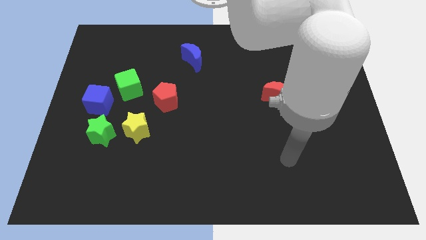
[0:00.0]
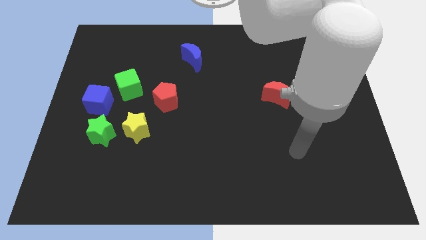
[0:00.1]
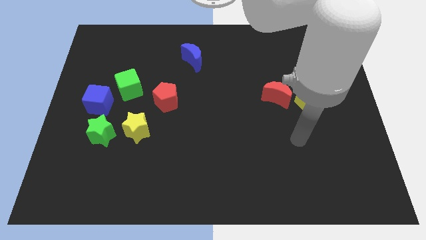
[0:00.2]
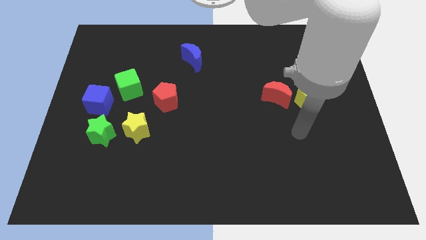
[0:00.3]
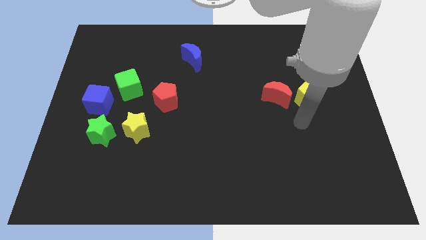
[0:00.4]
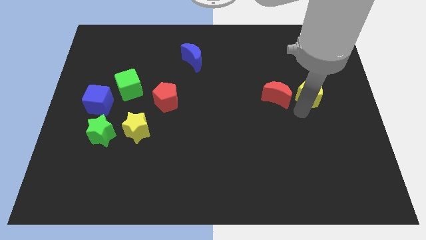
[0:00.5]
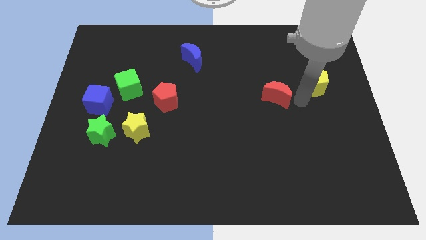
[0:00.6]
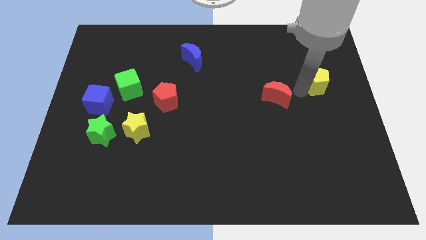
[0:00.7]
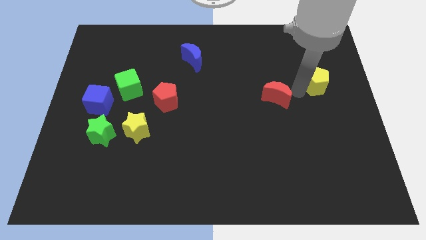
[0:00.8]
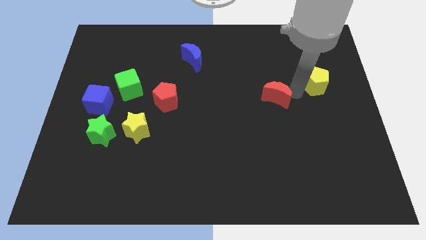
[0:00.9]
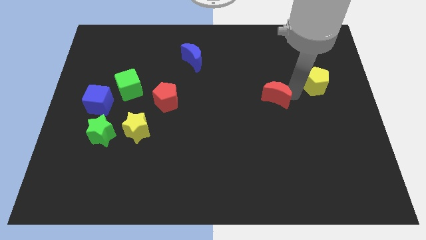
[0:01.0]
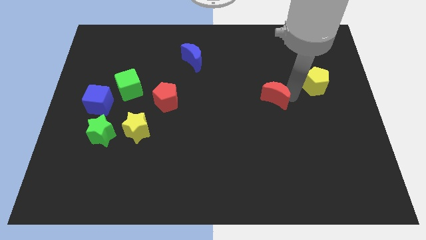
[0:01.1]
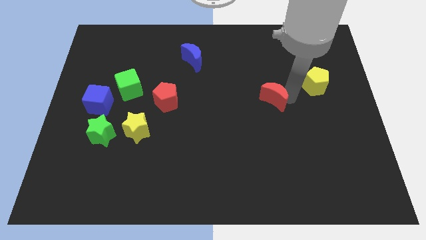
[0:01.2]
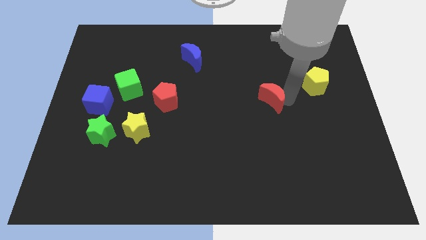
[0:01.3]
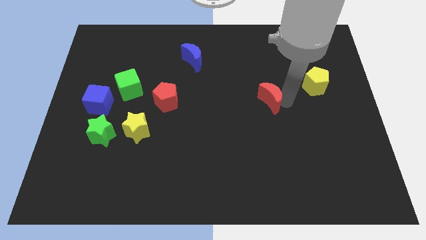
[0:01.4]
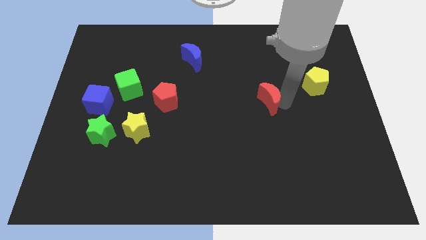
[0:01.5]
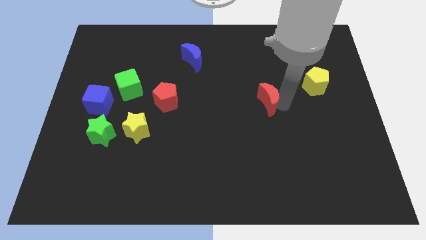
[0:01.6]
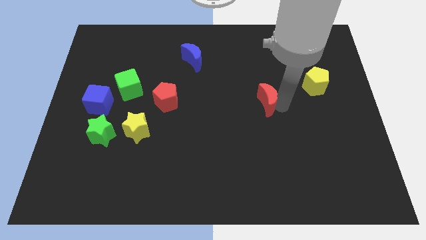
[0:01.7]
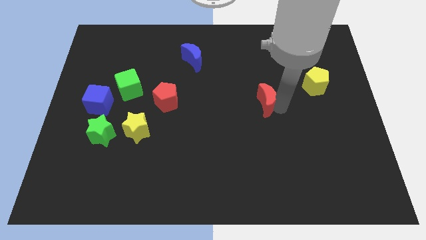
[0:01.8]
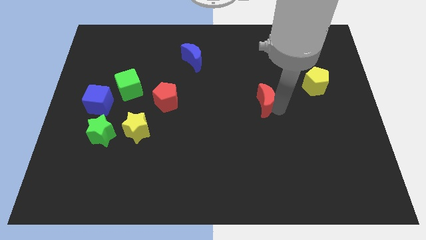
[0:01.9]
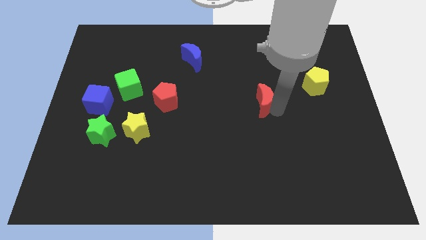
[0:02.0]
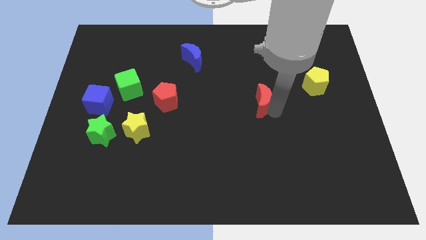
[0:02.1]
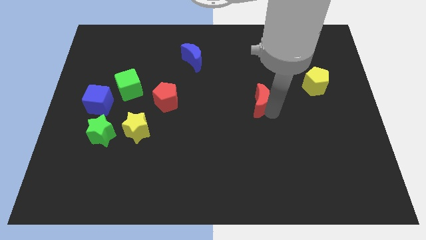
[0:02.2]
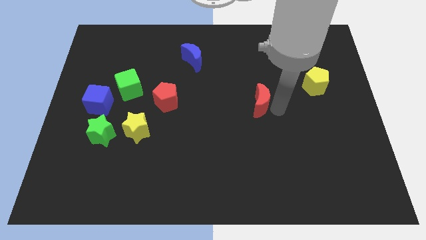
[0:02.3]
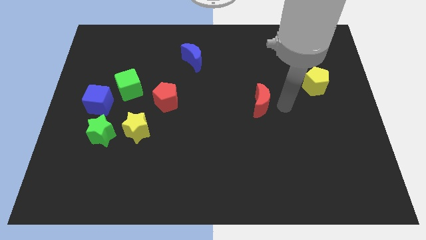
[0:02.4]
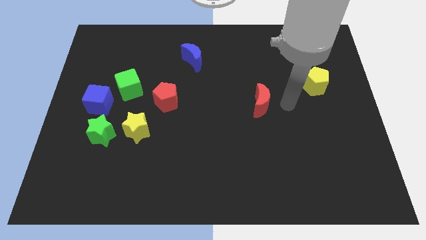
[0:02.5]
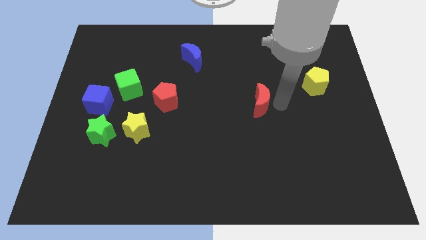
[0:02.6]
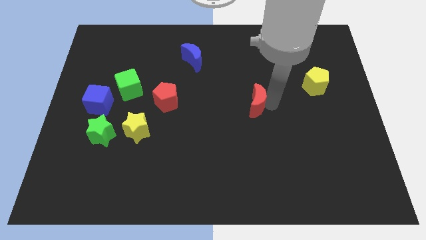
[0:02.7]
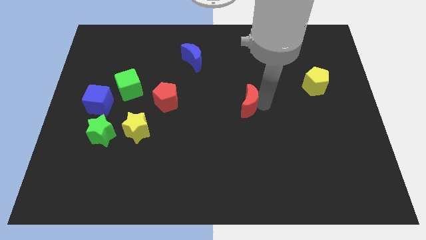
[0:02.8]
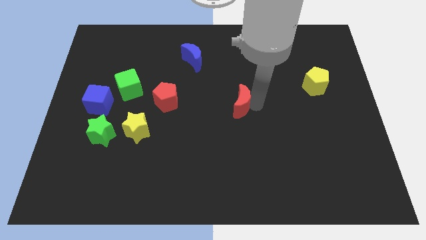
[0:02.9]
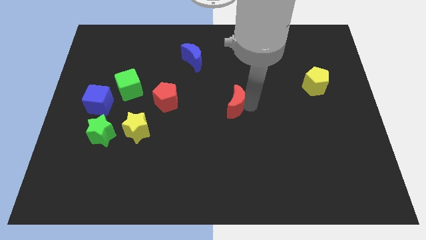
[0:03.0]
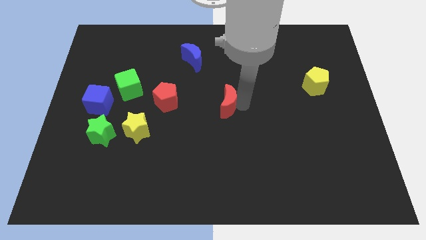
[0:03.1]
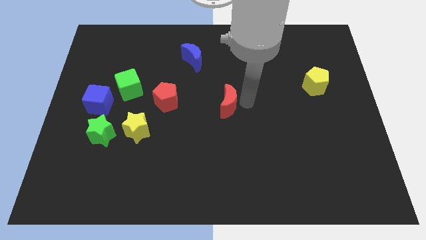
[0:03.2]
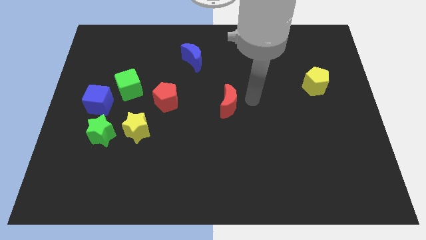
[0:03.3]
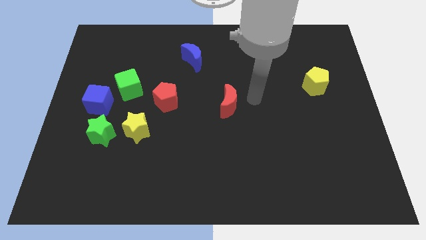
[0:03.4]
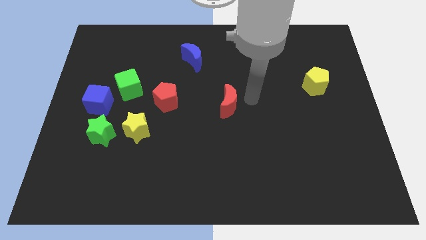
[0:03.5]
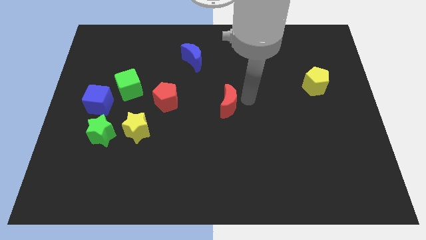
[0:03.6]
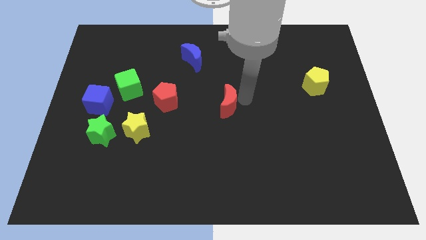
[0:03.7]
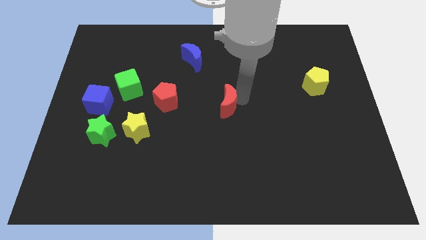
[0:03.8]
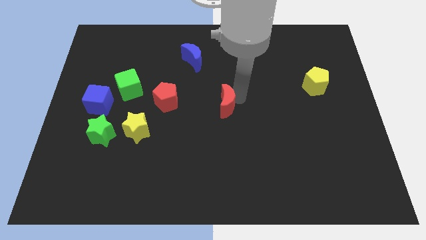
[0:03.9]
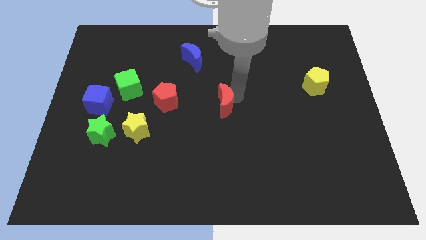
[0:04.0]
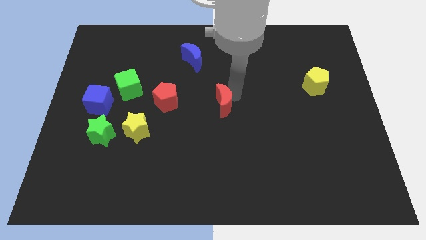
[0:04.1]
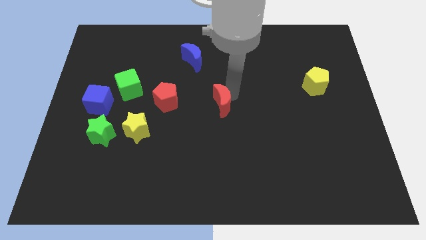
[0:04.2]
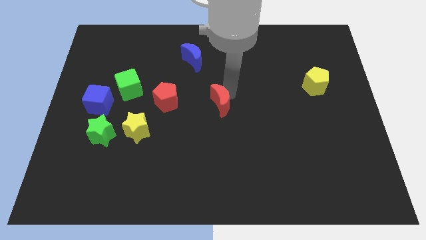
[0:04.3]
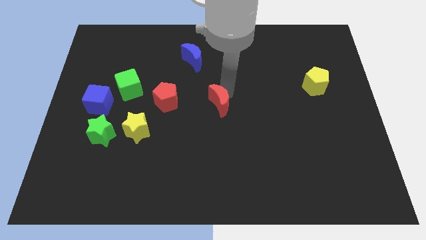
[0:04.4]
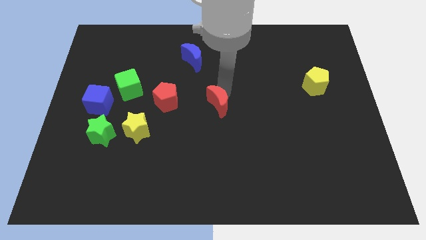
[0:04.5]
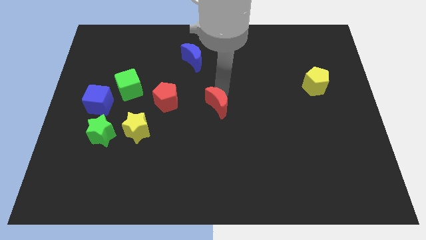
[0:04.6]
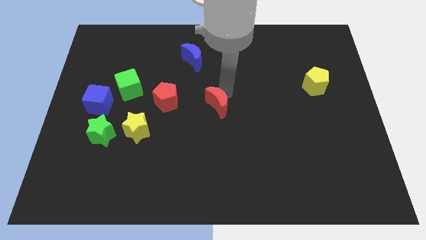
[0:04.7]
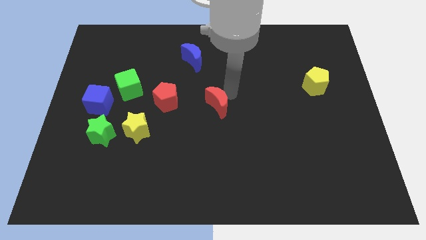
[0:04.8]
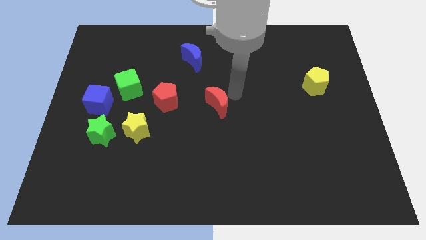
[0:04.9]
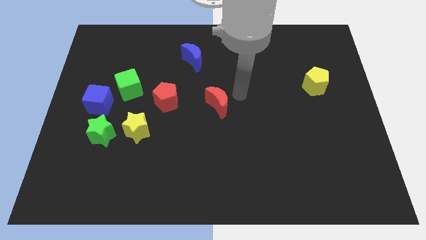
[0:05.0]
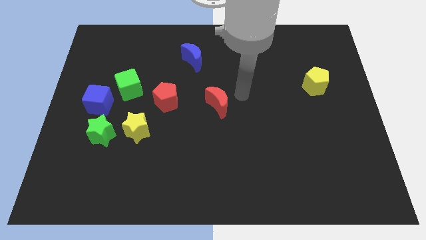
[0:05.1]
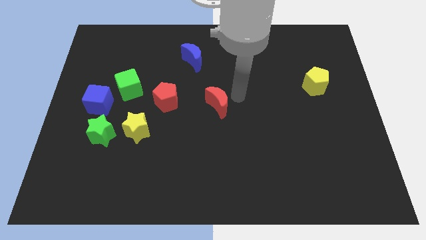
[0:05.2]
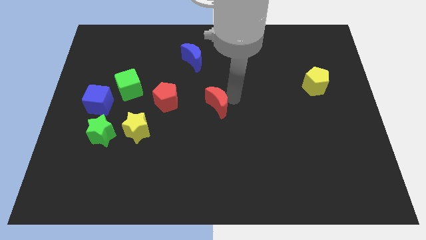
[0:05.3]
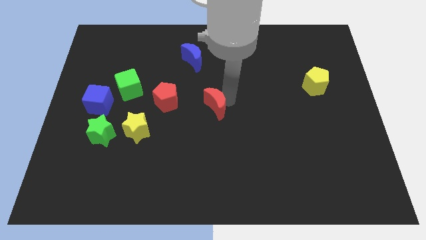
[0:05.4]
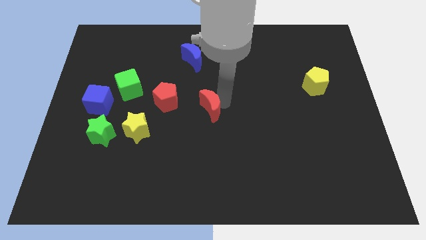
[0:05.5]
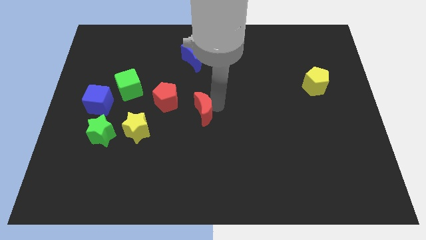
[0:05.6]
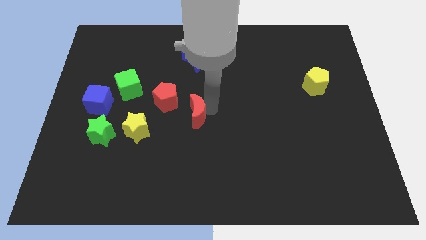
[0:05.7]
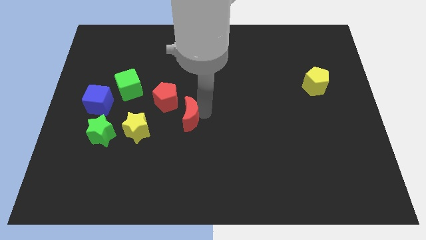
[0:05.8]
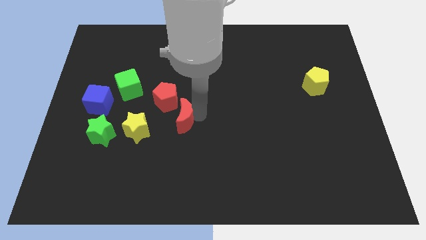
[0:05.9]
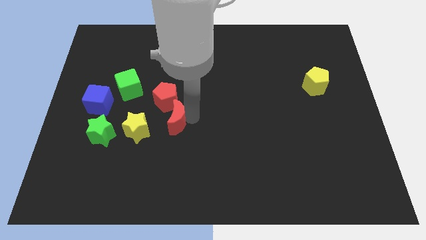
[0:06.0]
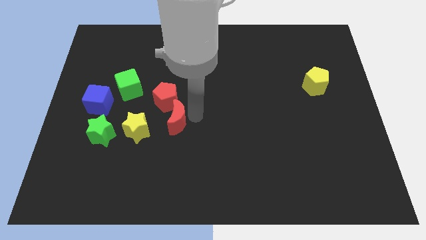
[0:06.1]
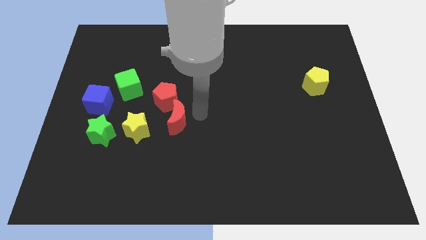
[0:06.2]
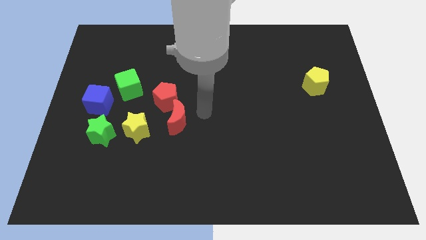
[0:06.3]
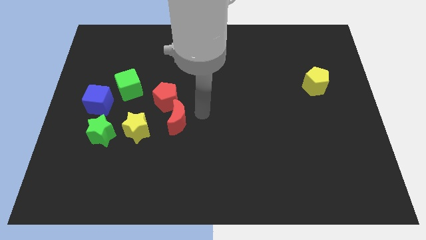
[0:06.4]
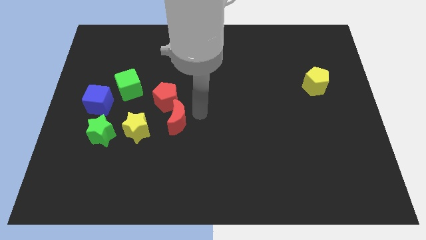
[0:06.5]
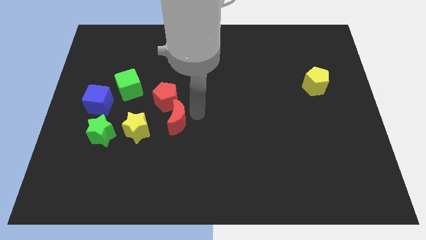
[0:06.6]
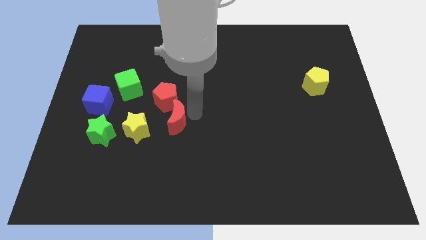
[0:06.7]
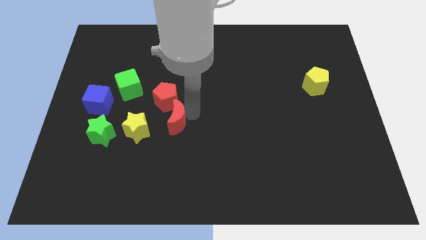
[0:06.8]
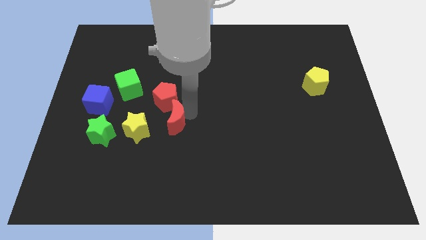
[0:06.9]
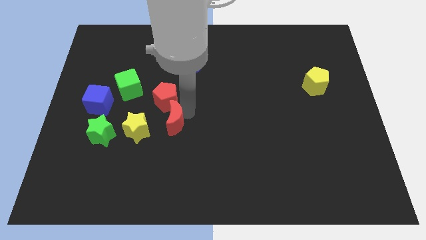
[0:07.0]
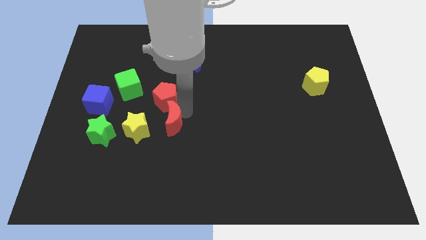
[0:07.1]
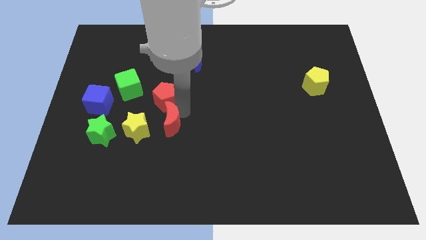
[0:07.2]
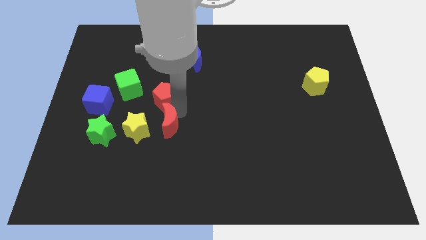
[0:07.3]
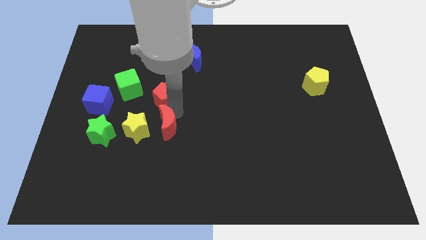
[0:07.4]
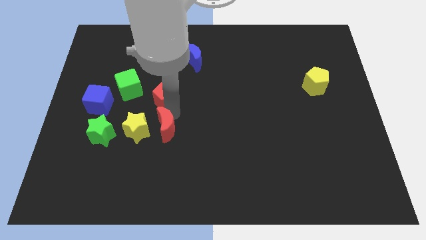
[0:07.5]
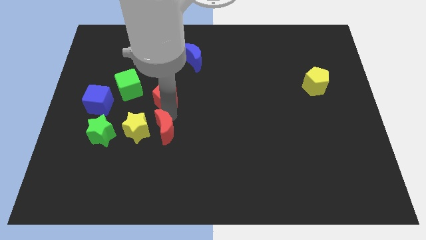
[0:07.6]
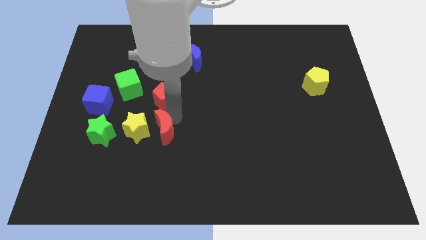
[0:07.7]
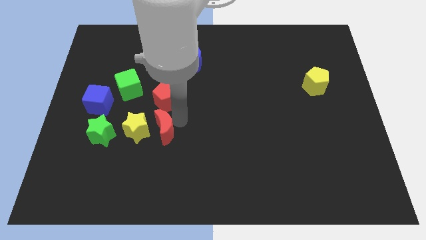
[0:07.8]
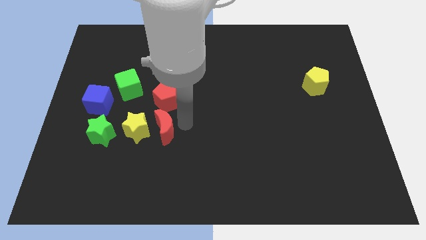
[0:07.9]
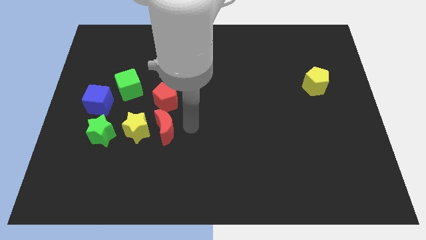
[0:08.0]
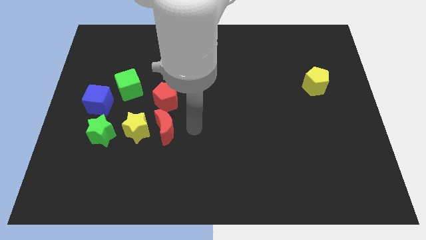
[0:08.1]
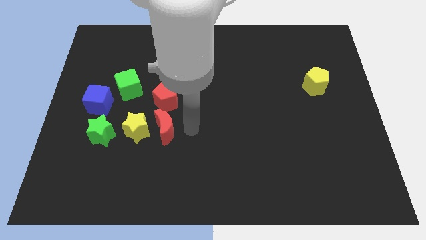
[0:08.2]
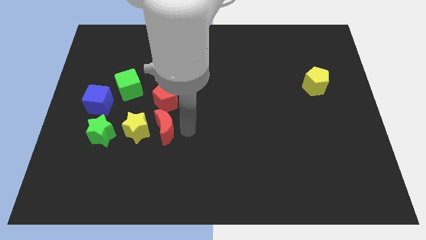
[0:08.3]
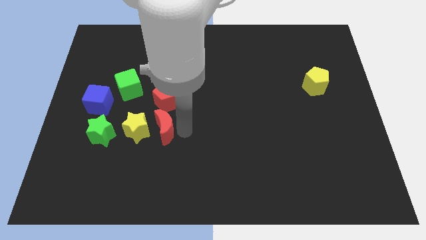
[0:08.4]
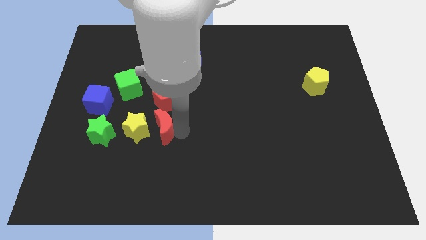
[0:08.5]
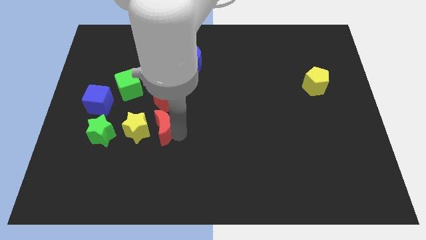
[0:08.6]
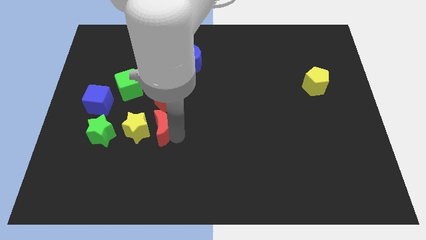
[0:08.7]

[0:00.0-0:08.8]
put the red moon next to the yellow star
